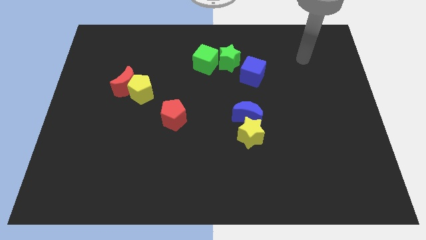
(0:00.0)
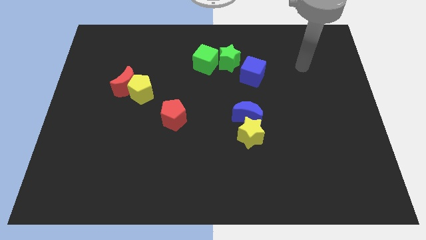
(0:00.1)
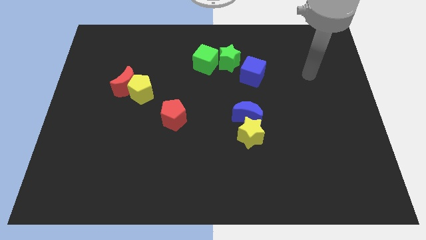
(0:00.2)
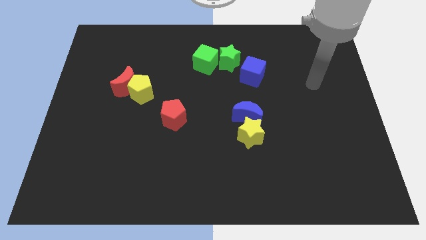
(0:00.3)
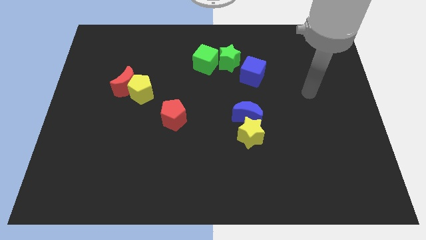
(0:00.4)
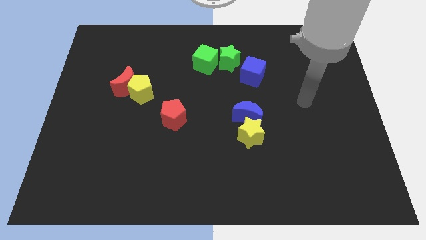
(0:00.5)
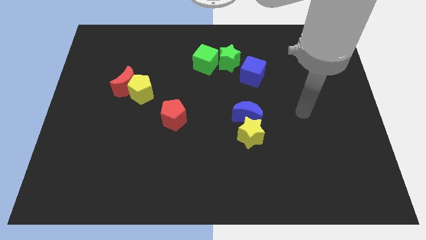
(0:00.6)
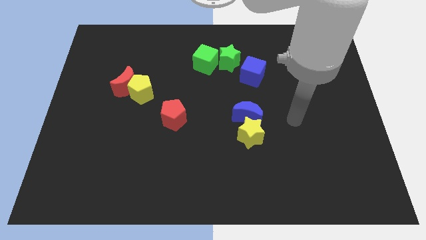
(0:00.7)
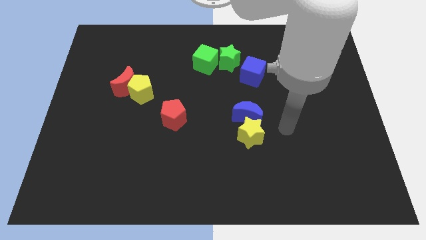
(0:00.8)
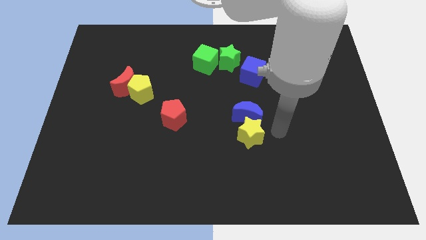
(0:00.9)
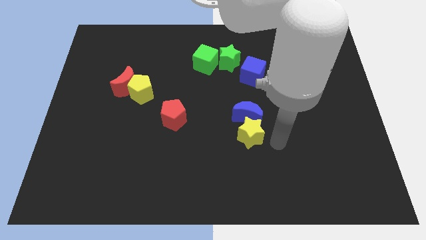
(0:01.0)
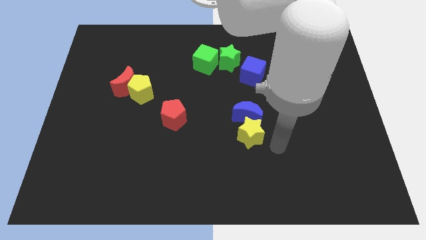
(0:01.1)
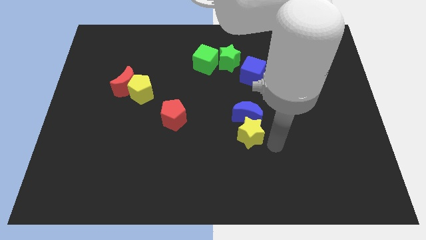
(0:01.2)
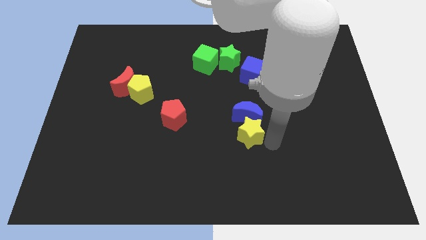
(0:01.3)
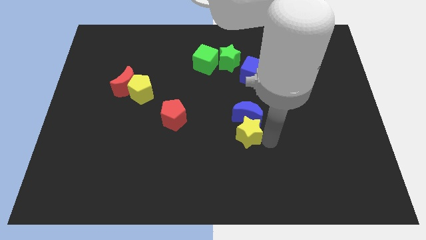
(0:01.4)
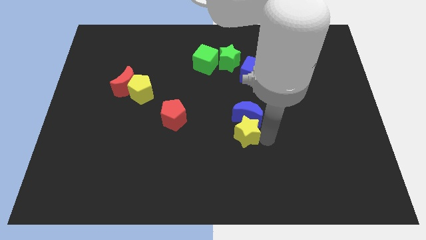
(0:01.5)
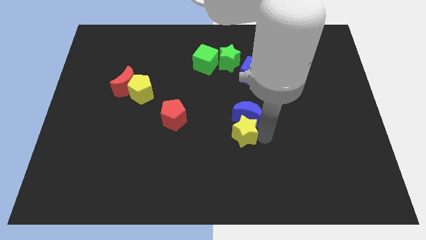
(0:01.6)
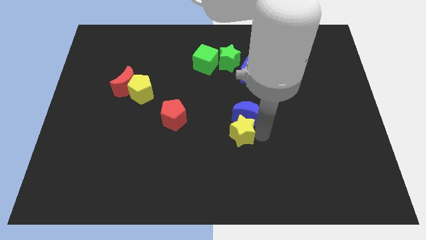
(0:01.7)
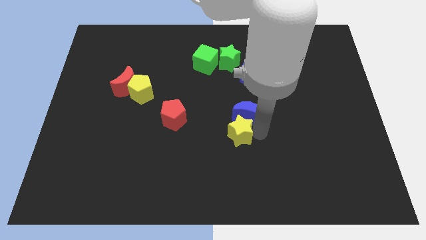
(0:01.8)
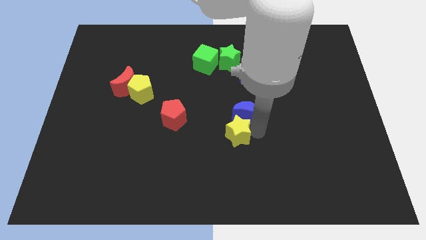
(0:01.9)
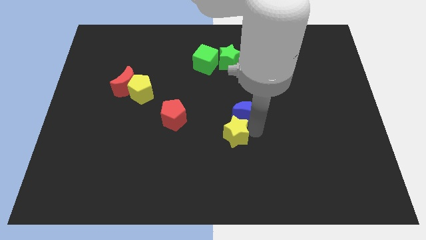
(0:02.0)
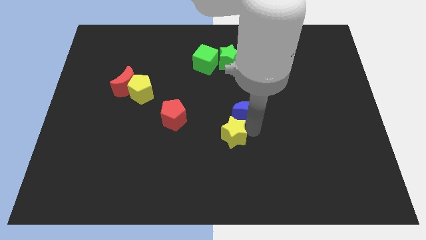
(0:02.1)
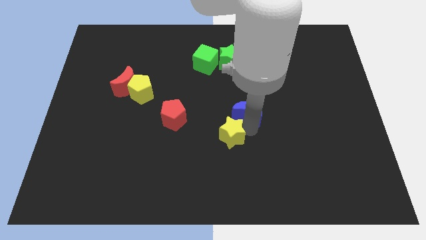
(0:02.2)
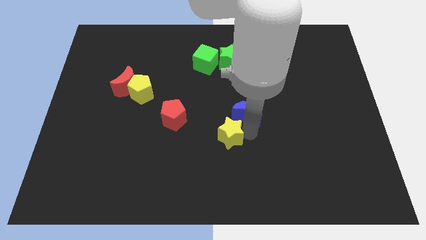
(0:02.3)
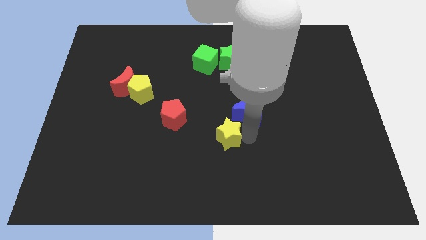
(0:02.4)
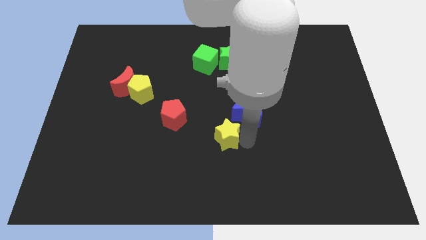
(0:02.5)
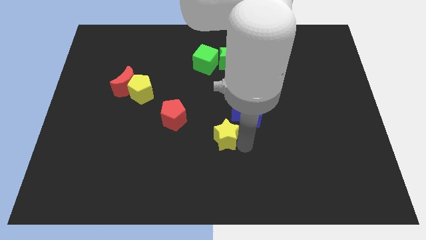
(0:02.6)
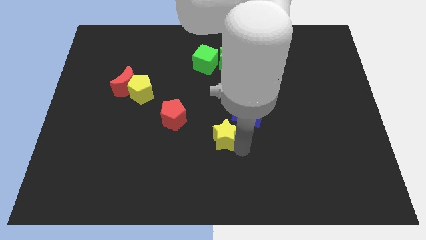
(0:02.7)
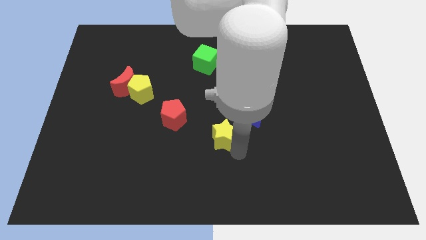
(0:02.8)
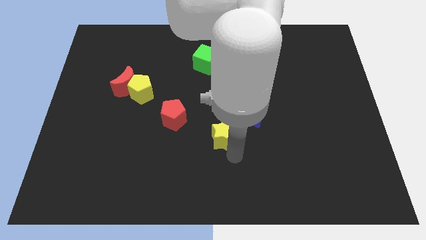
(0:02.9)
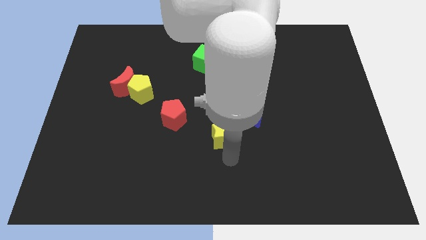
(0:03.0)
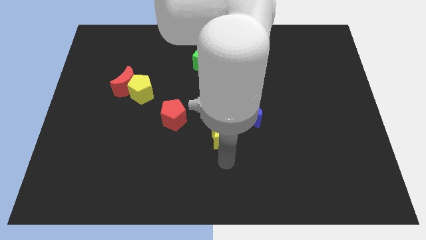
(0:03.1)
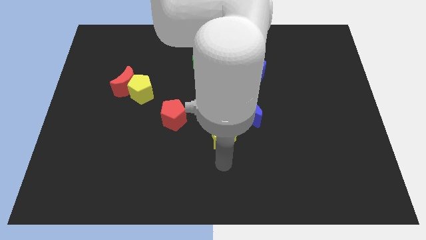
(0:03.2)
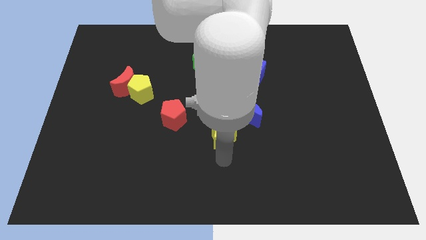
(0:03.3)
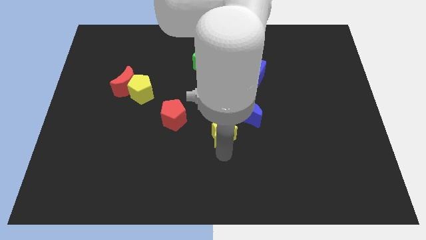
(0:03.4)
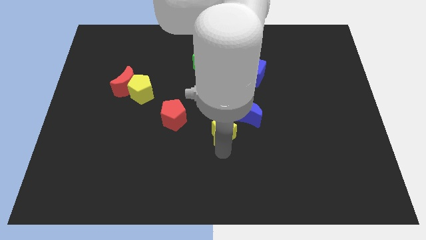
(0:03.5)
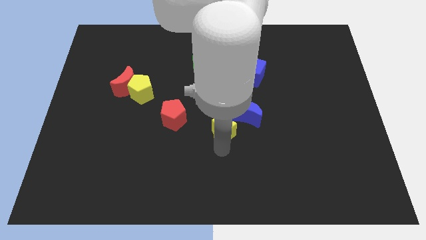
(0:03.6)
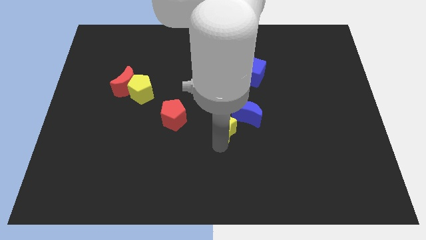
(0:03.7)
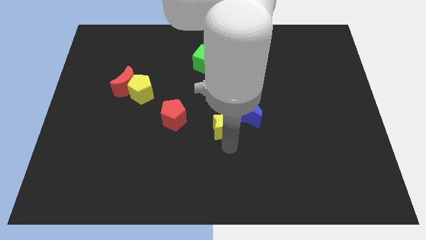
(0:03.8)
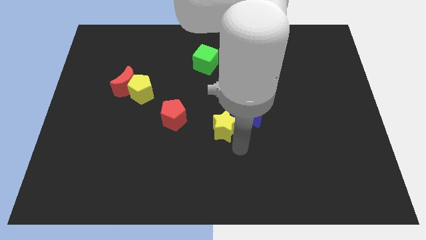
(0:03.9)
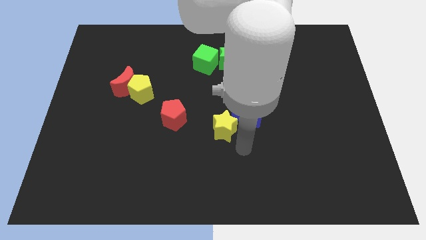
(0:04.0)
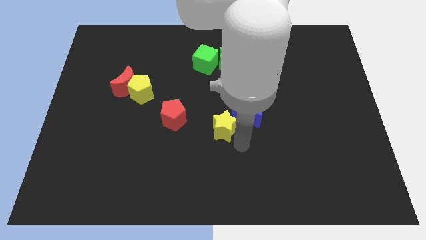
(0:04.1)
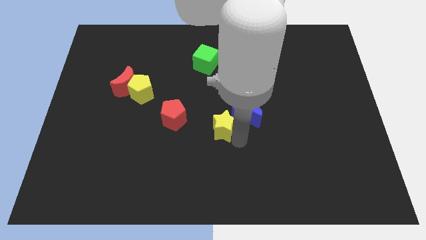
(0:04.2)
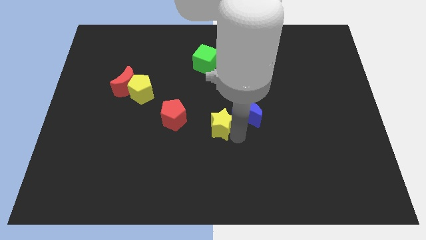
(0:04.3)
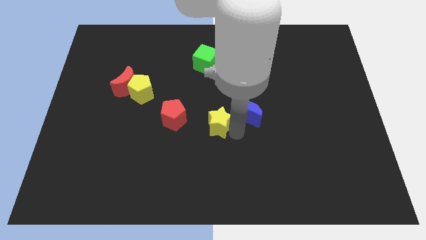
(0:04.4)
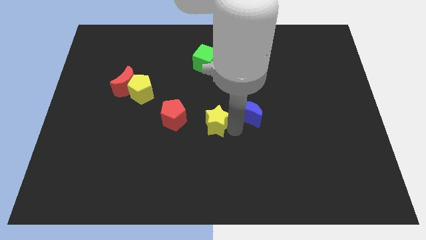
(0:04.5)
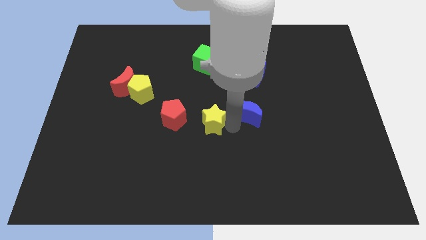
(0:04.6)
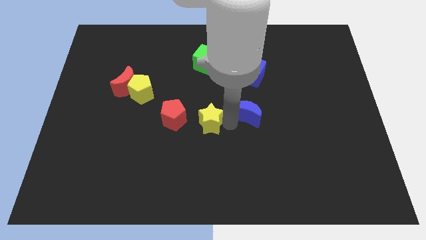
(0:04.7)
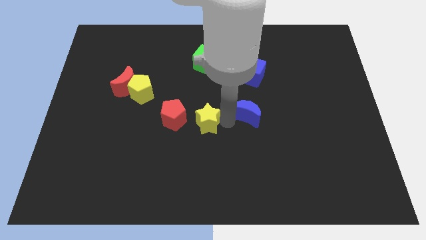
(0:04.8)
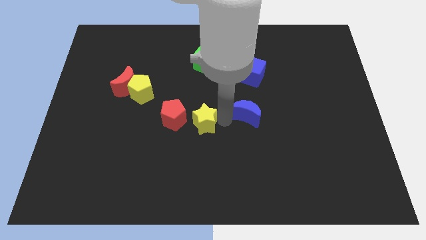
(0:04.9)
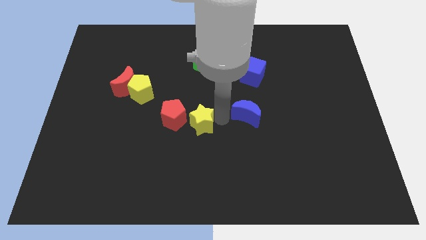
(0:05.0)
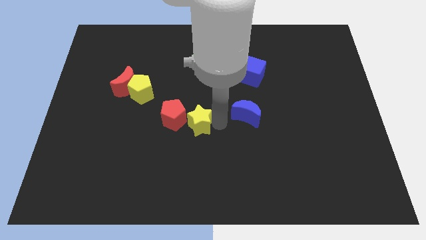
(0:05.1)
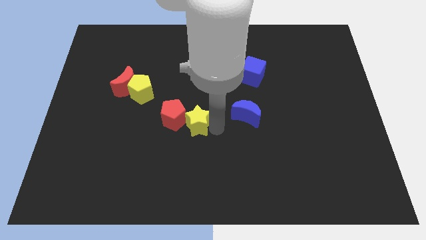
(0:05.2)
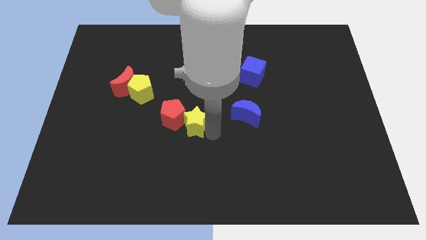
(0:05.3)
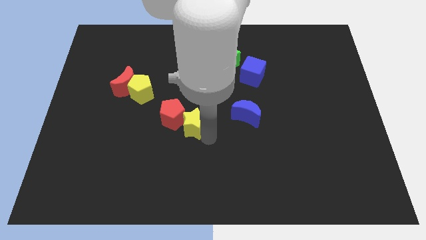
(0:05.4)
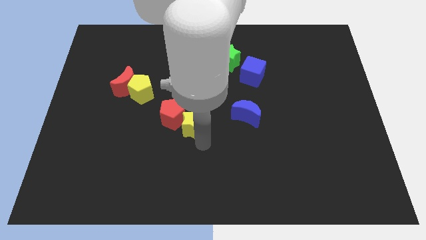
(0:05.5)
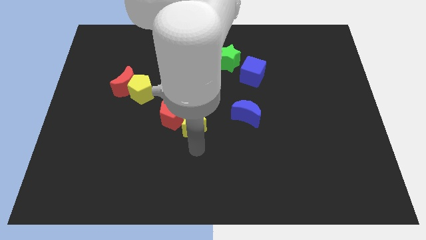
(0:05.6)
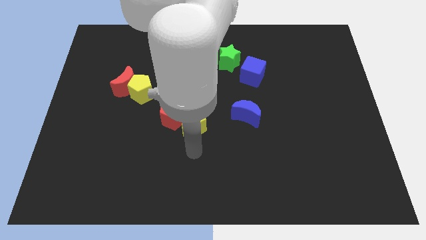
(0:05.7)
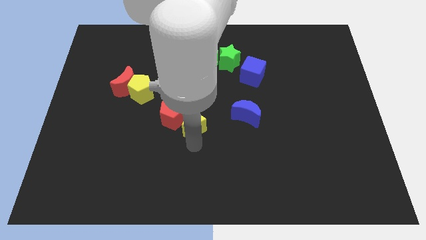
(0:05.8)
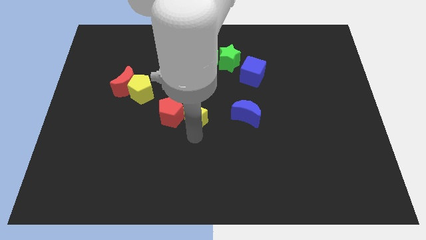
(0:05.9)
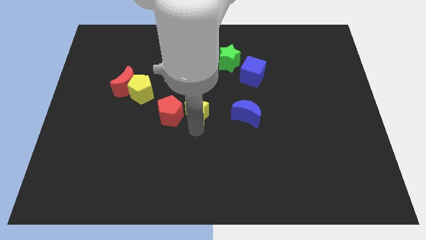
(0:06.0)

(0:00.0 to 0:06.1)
move the yellow star diagonally up and to the right of the red pentagon

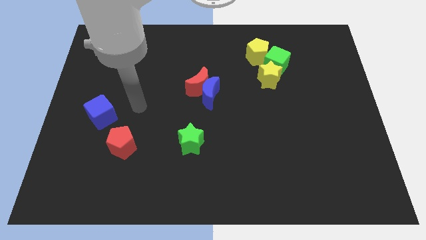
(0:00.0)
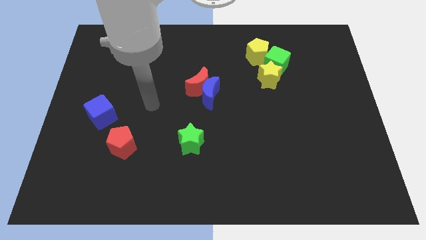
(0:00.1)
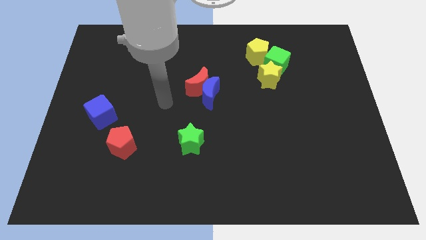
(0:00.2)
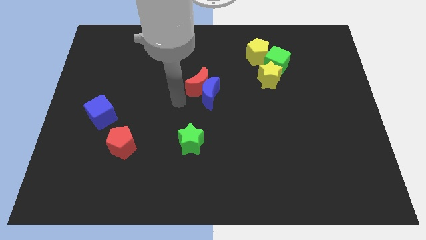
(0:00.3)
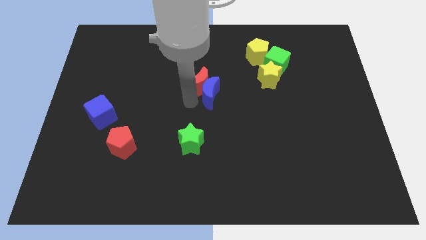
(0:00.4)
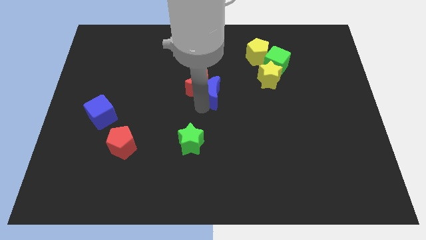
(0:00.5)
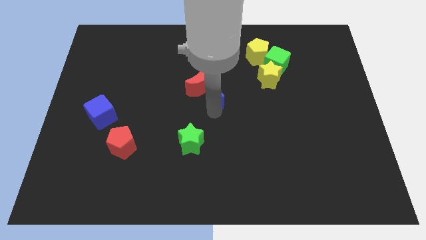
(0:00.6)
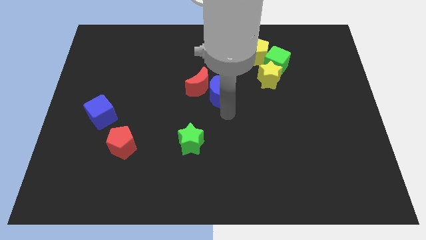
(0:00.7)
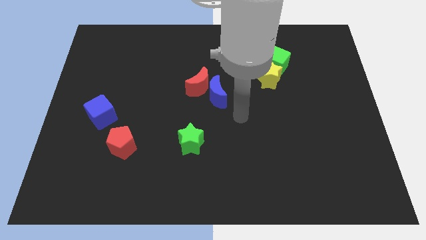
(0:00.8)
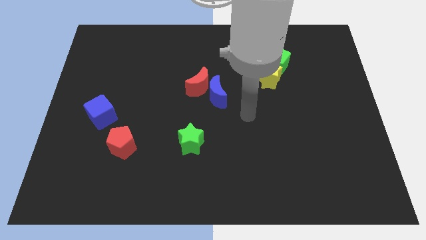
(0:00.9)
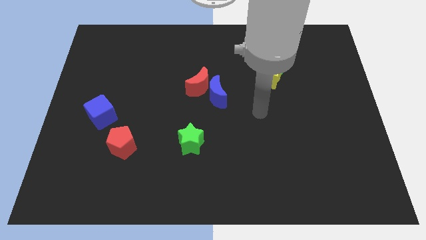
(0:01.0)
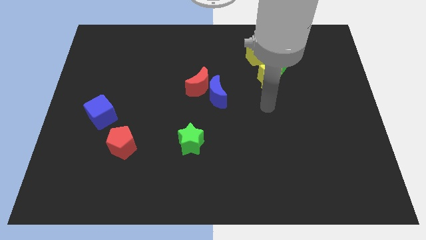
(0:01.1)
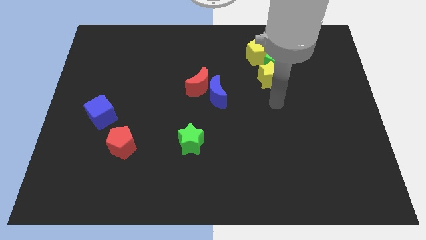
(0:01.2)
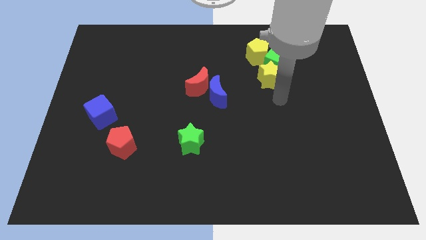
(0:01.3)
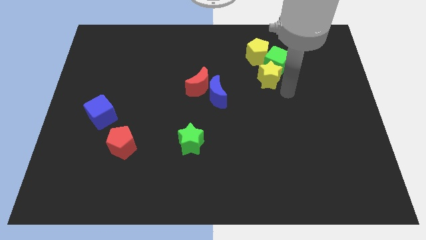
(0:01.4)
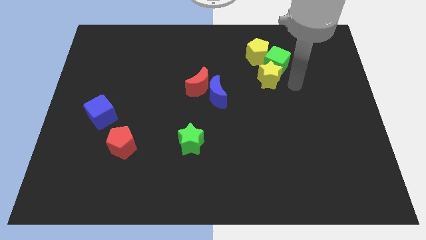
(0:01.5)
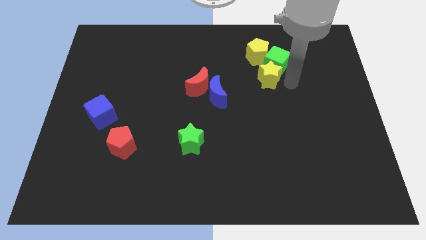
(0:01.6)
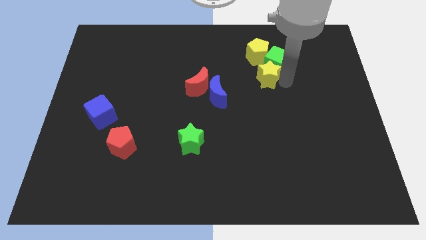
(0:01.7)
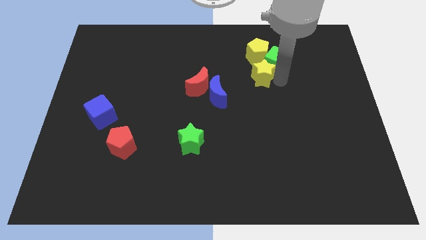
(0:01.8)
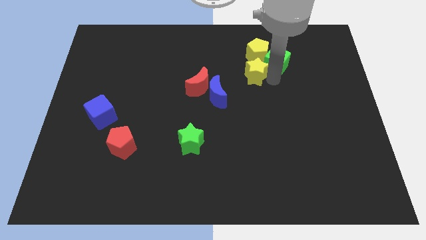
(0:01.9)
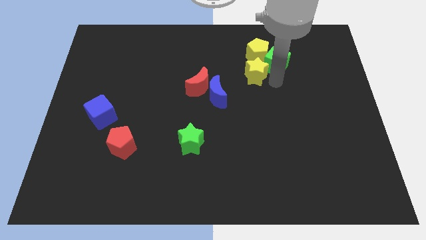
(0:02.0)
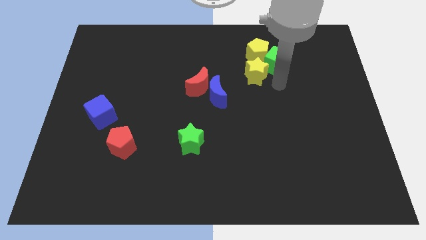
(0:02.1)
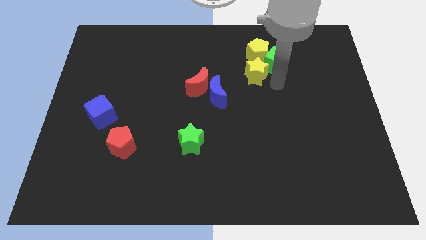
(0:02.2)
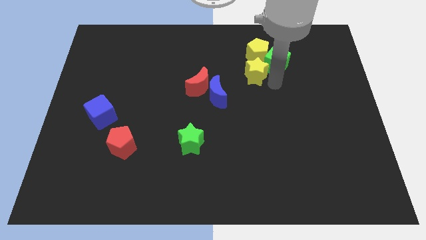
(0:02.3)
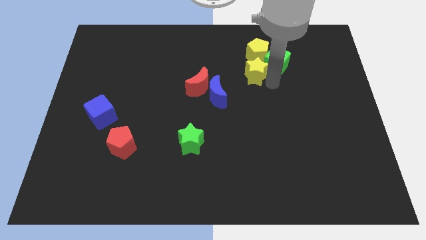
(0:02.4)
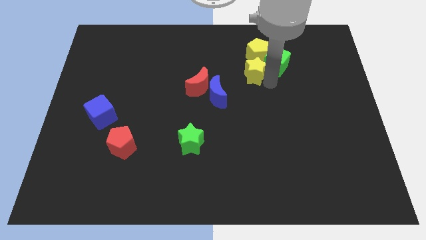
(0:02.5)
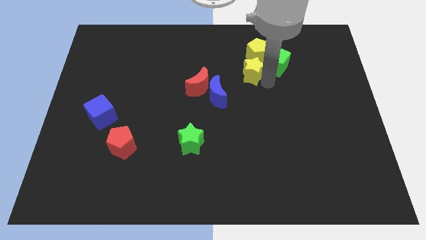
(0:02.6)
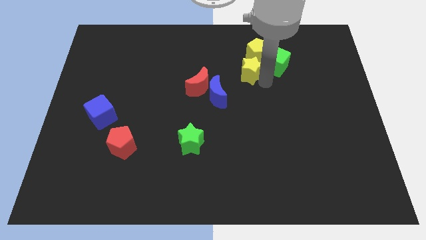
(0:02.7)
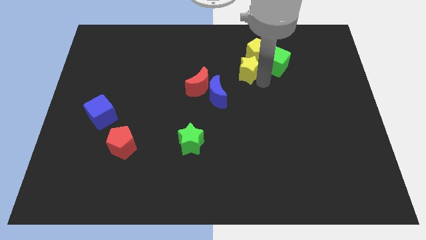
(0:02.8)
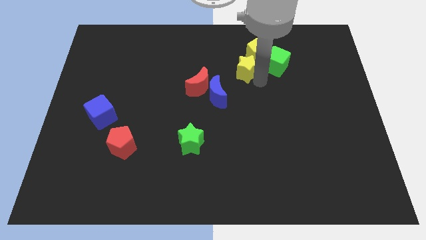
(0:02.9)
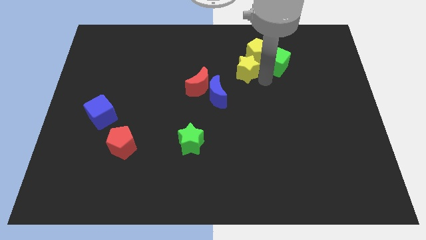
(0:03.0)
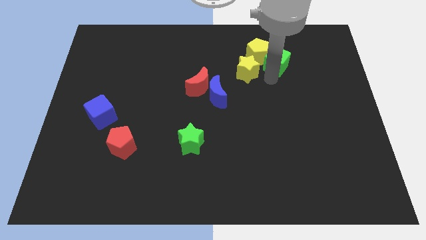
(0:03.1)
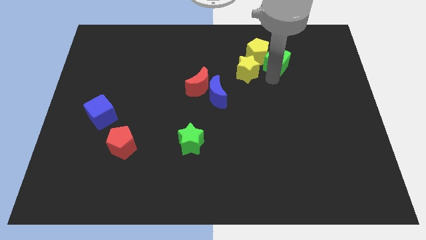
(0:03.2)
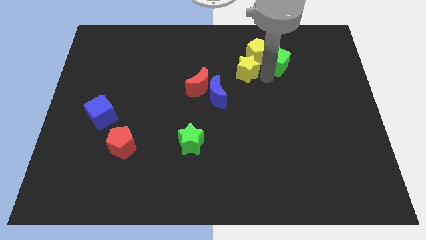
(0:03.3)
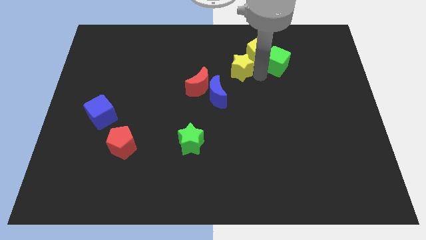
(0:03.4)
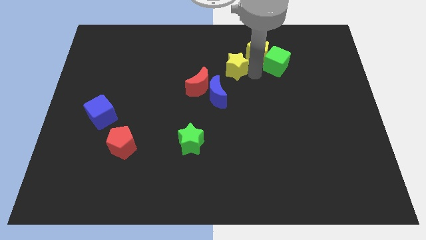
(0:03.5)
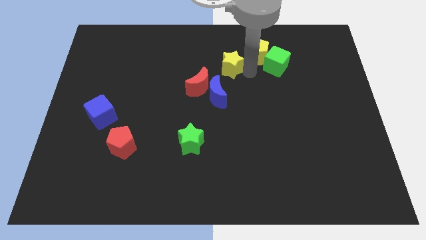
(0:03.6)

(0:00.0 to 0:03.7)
slide the yellow star to the top side of the blue moon
